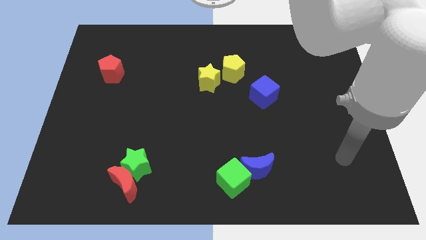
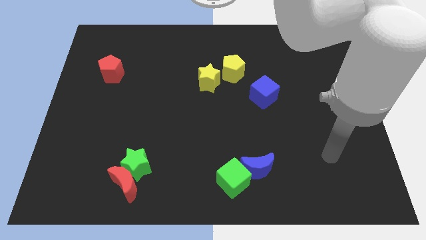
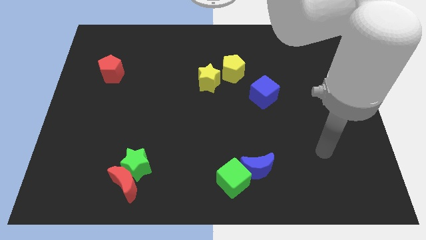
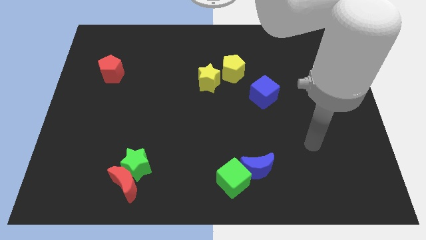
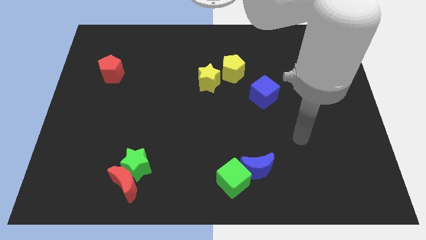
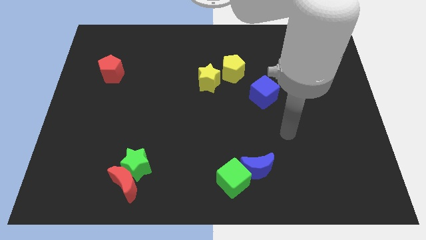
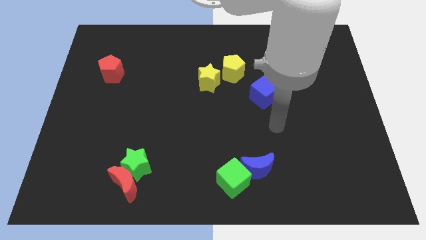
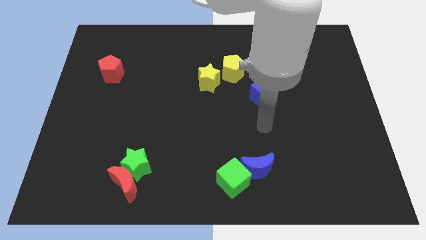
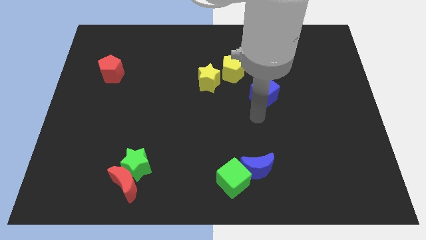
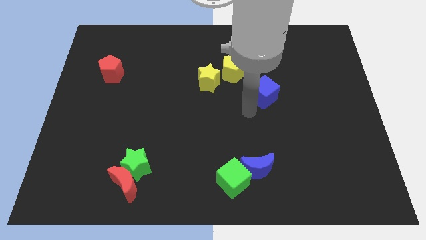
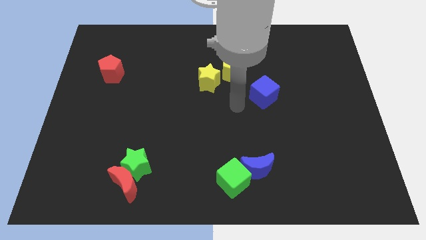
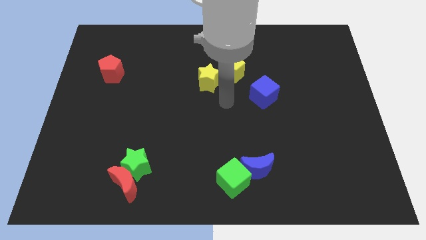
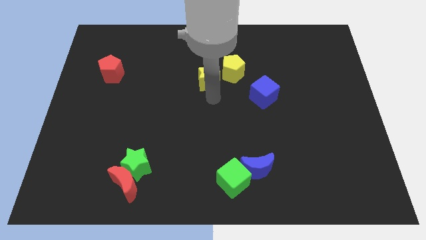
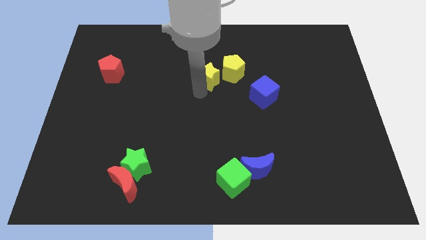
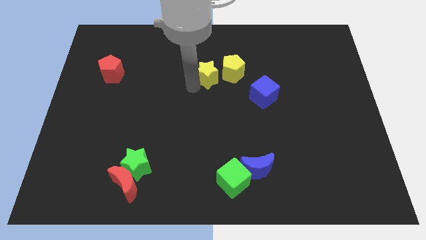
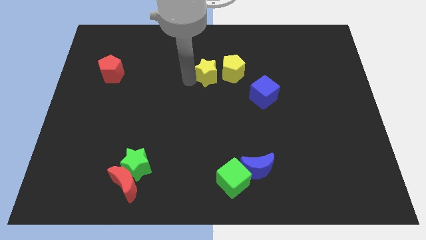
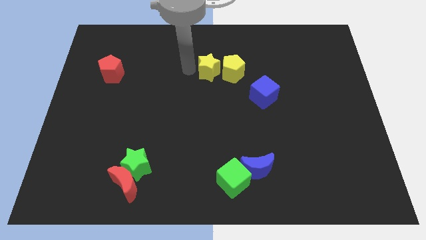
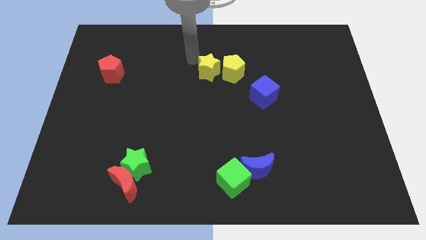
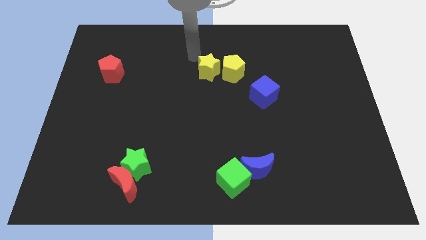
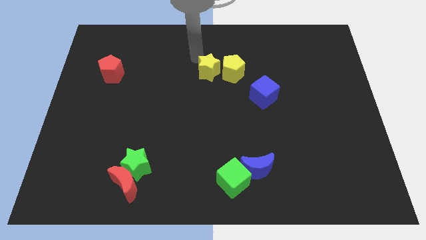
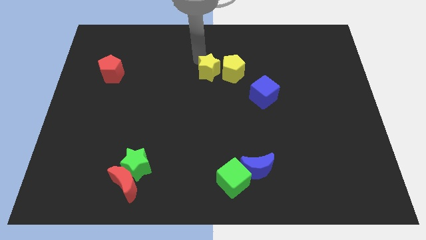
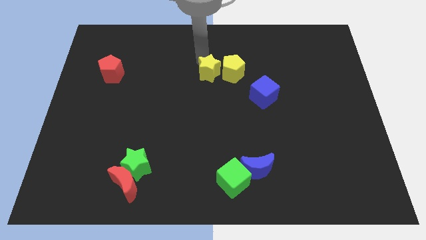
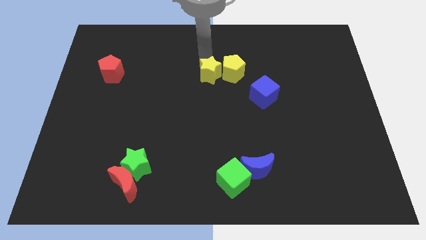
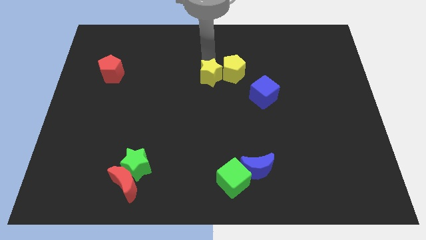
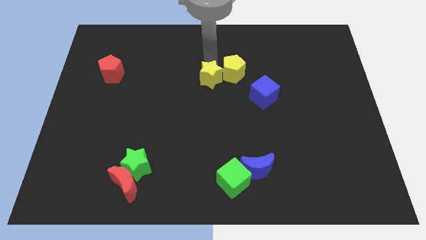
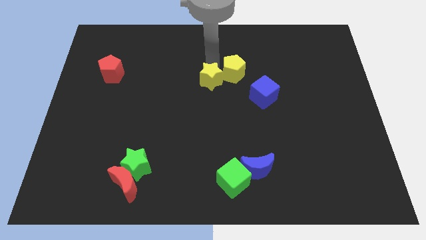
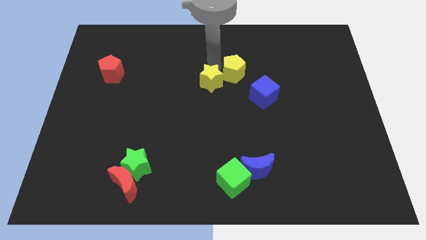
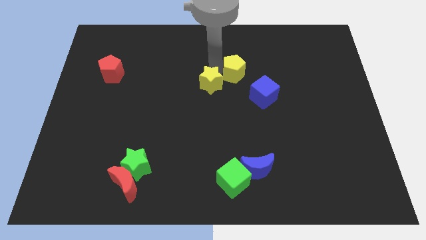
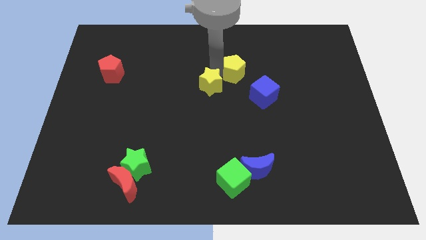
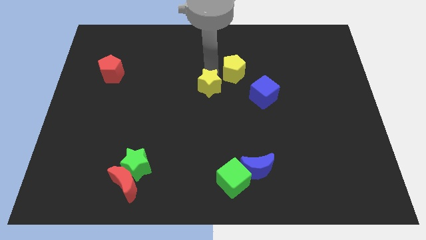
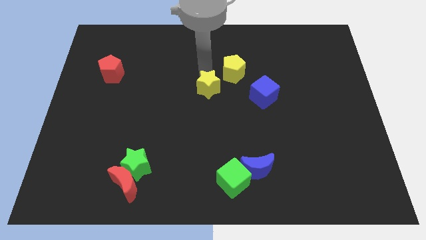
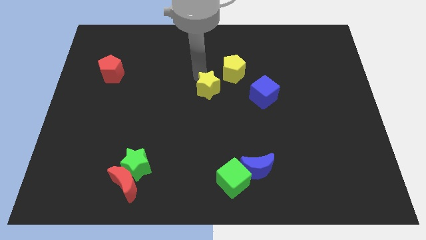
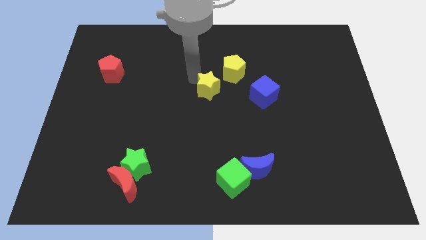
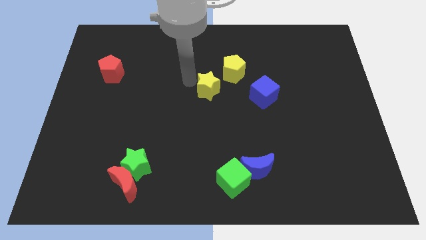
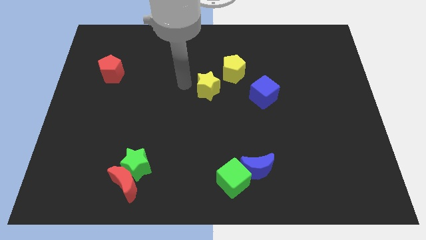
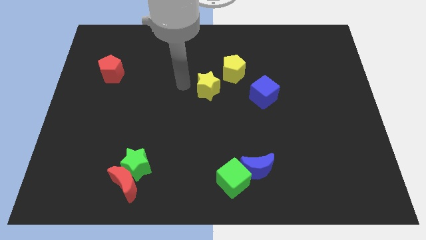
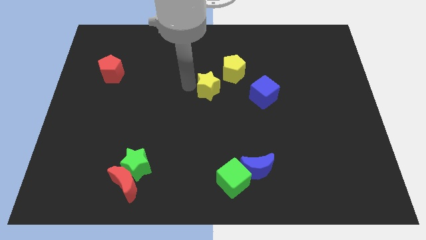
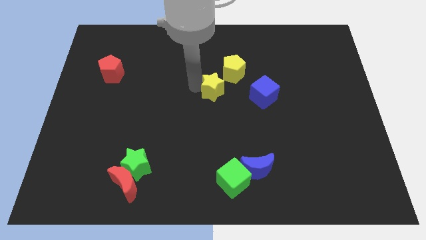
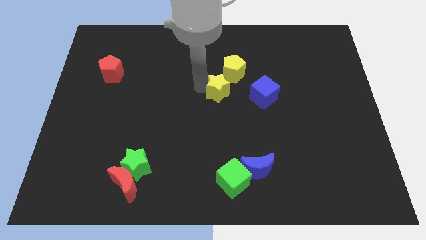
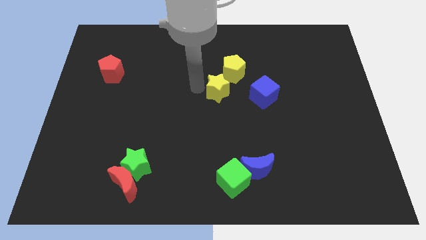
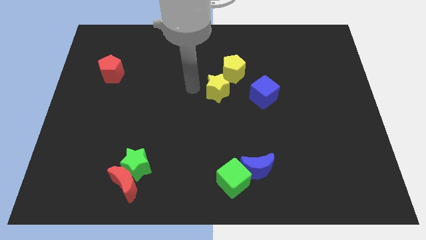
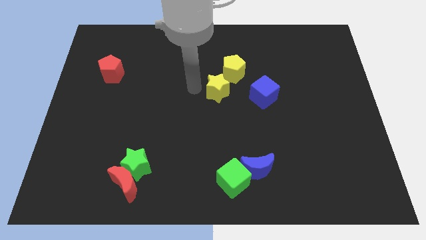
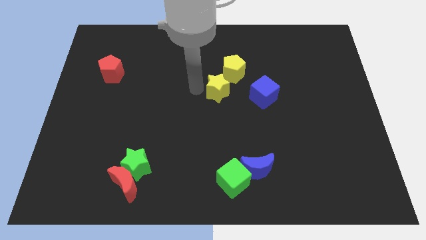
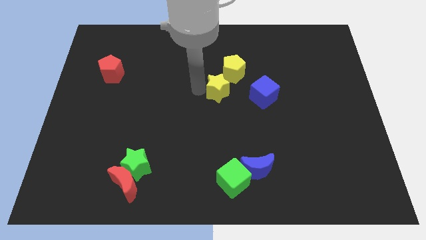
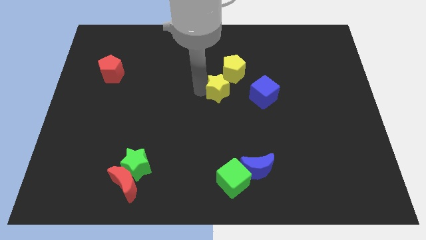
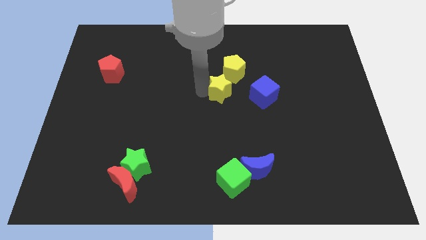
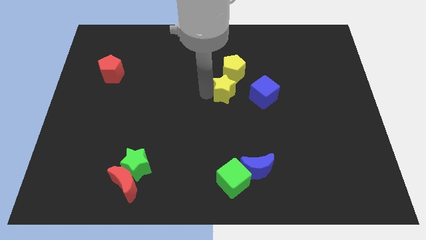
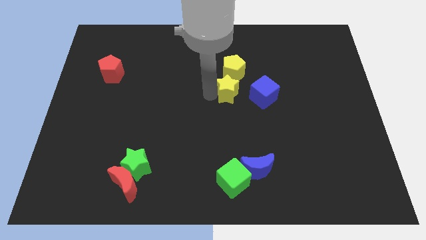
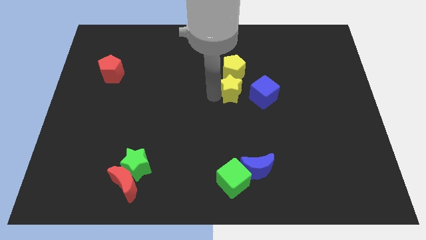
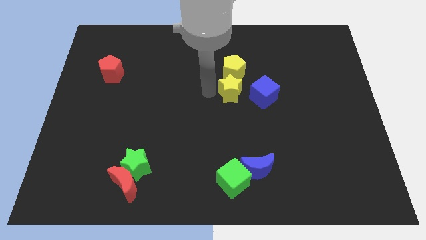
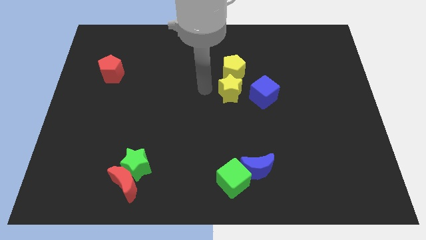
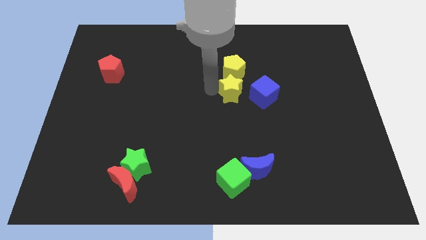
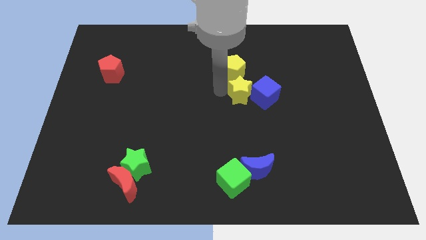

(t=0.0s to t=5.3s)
put the yellow star towards the blue cube

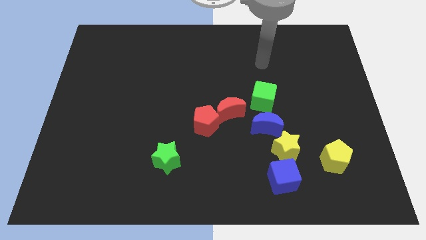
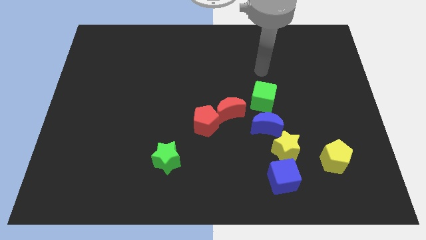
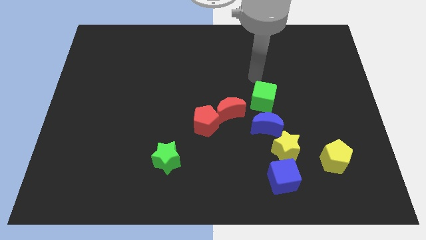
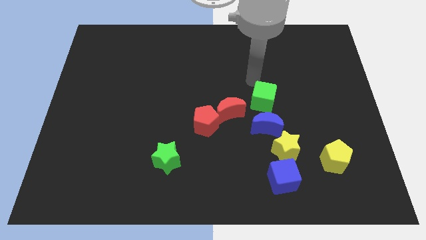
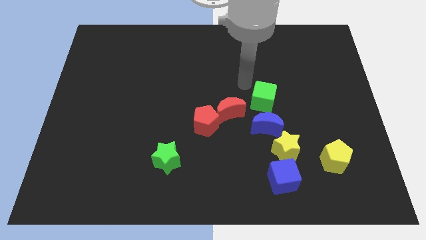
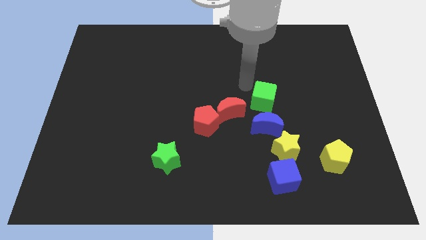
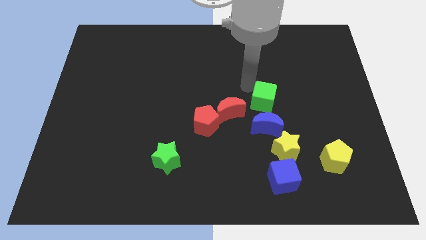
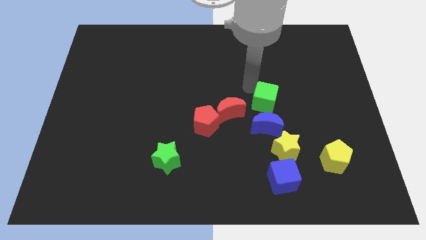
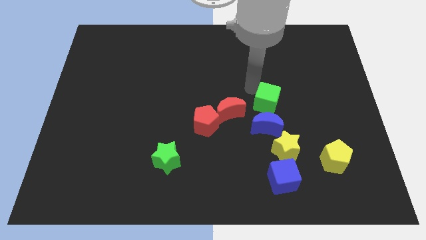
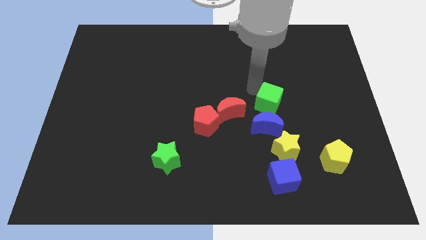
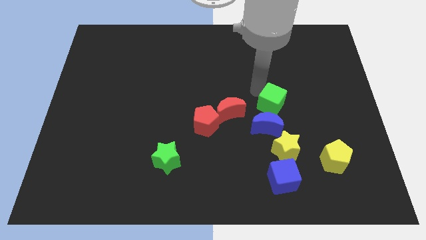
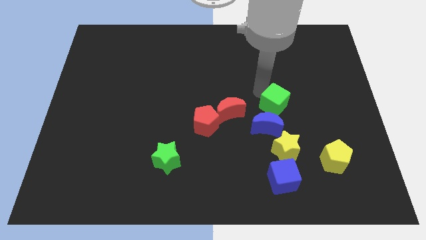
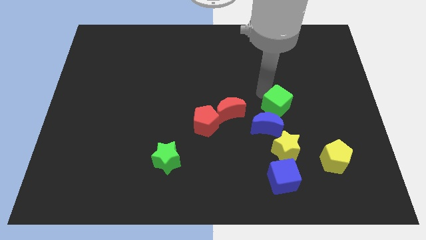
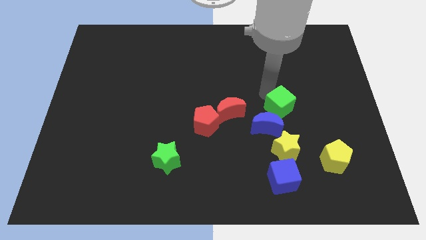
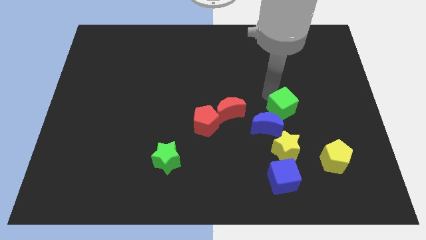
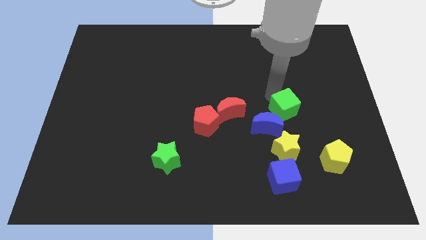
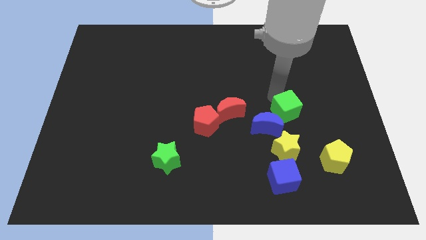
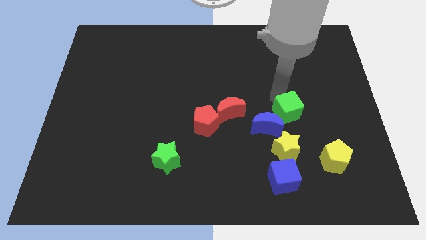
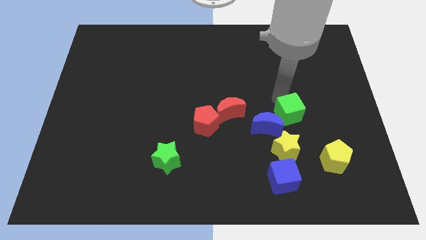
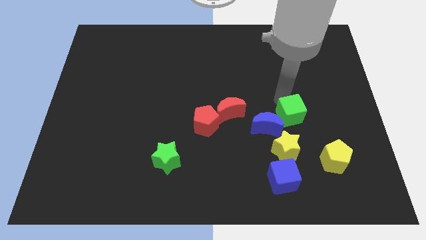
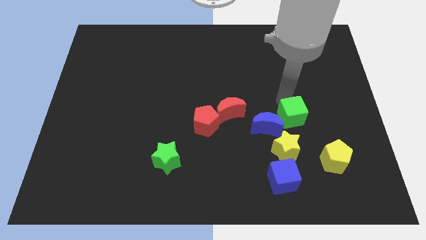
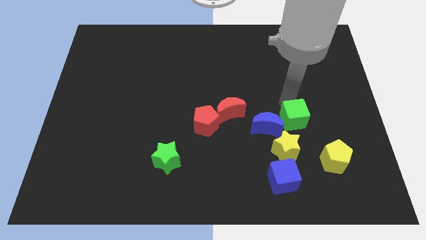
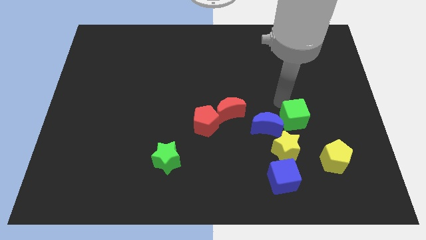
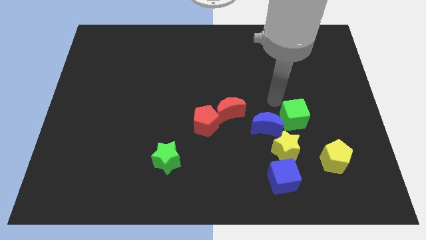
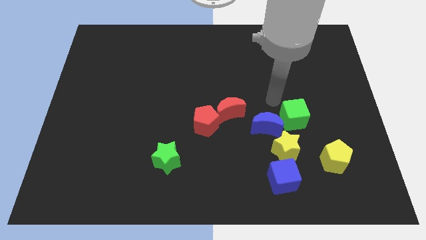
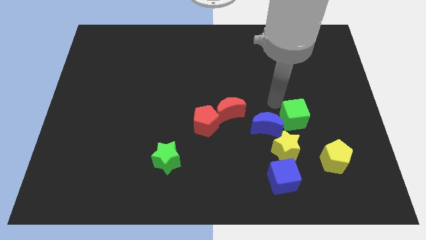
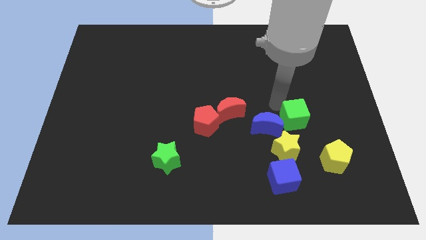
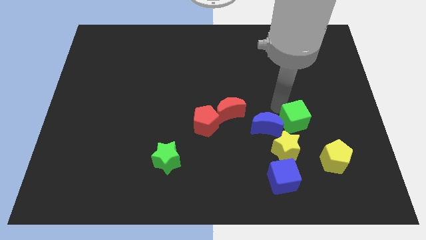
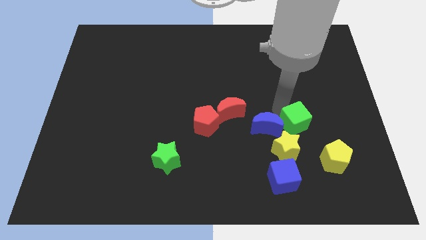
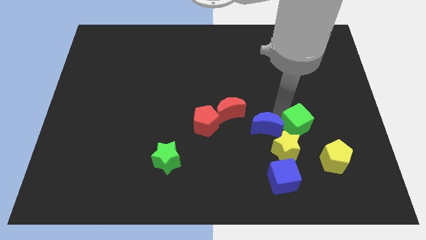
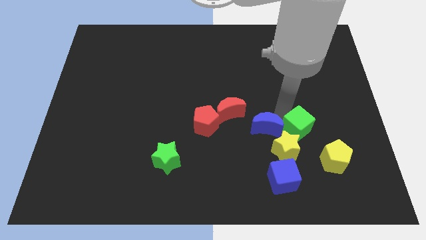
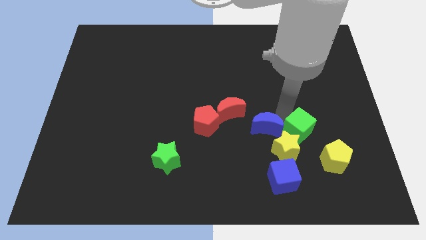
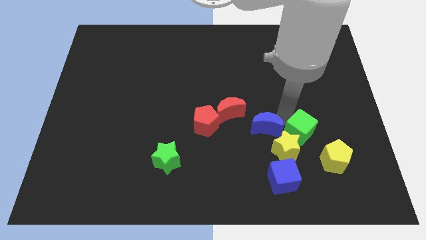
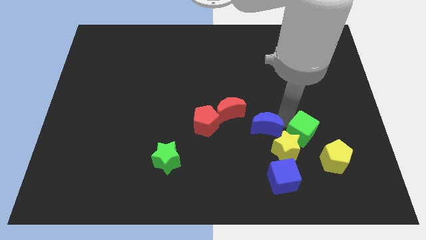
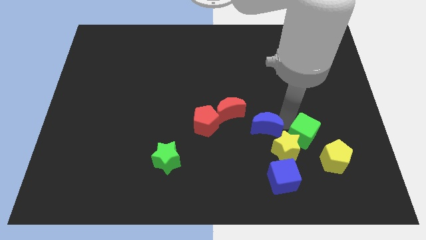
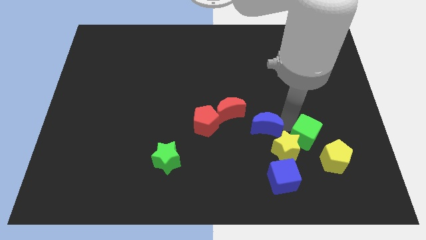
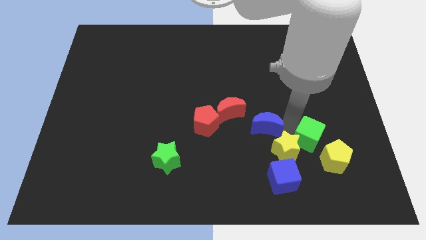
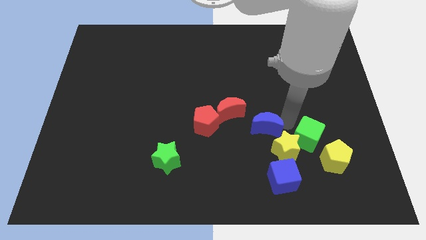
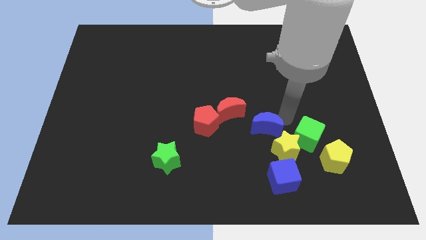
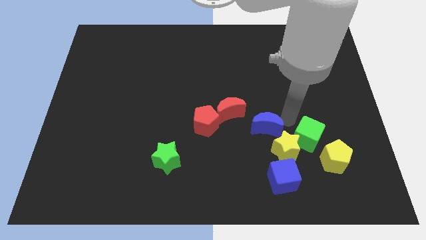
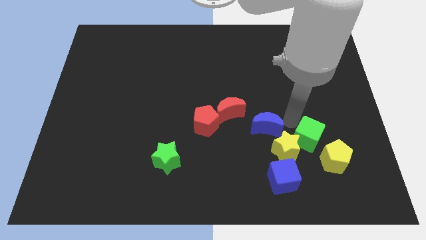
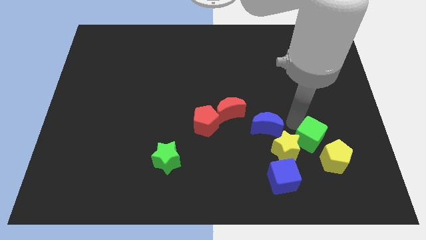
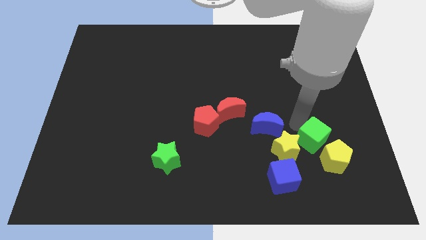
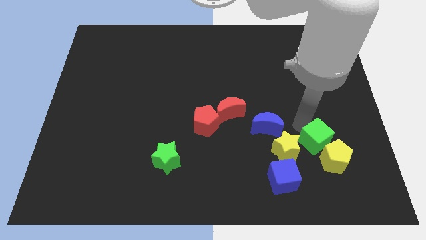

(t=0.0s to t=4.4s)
slide the green cube to the yellow pentagon
